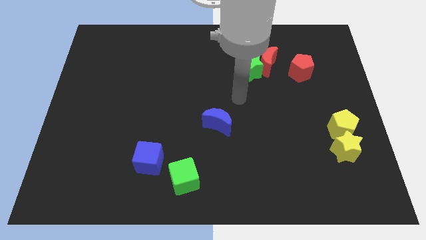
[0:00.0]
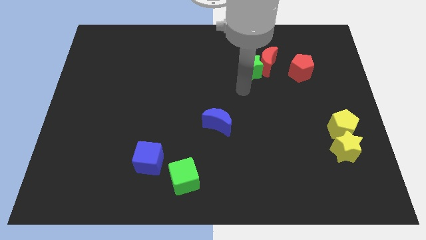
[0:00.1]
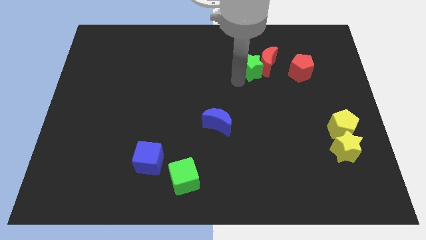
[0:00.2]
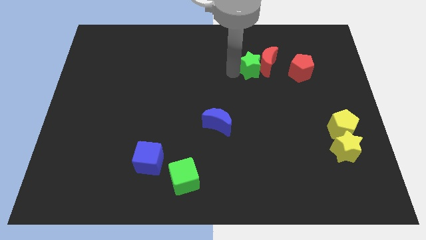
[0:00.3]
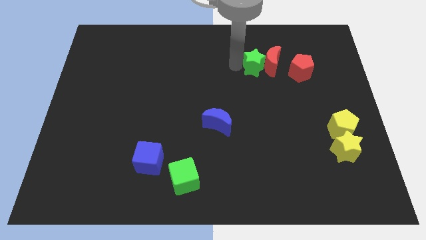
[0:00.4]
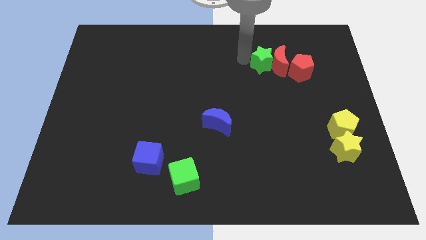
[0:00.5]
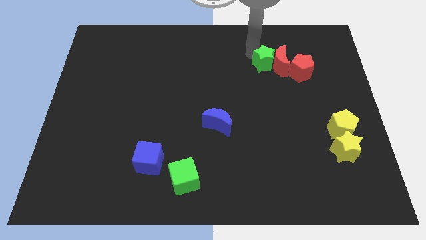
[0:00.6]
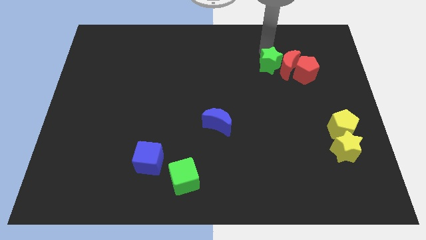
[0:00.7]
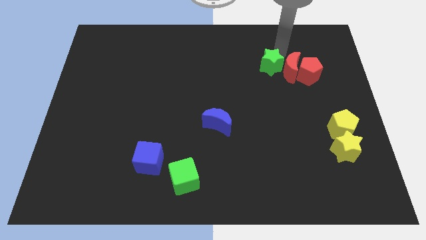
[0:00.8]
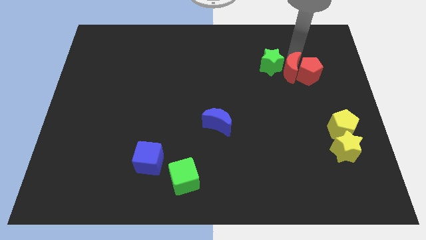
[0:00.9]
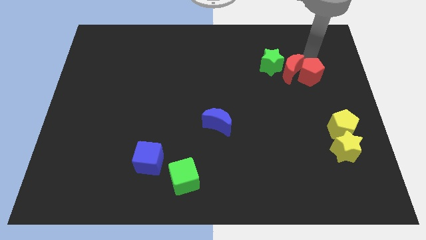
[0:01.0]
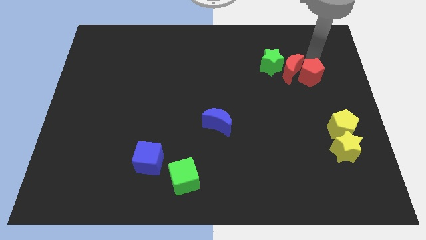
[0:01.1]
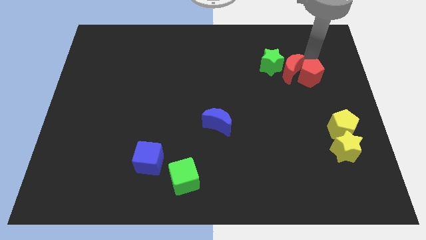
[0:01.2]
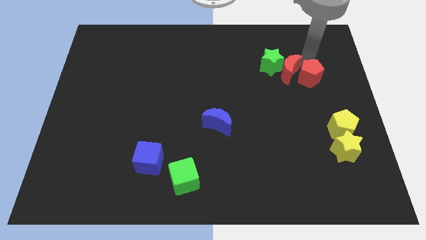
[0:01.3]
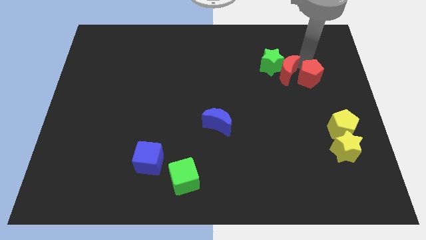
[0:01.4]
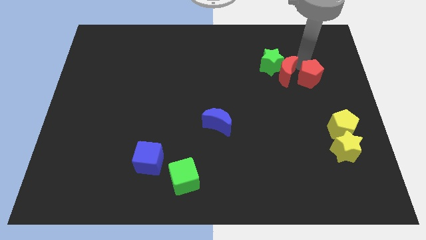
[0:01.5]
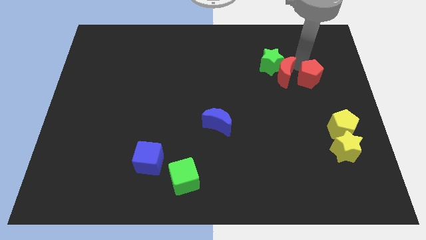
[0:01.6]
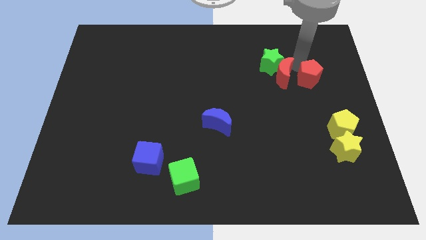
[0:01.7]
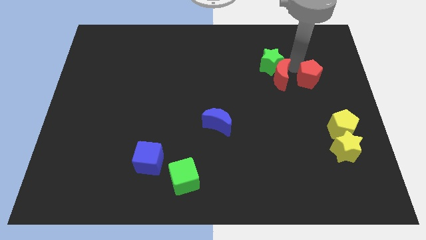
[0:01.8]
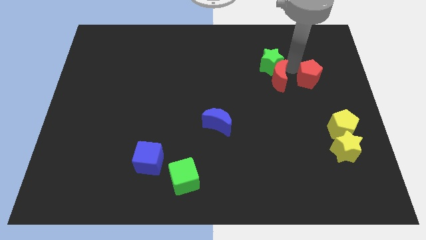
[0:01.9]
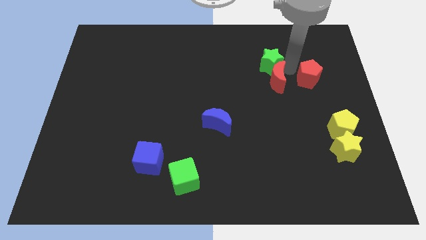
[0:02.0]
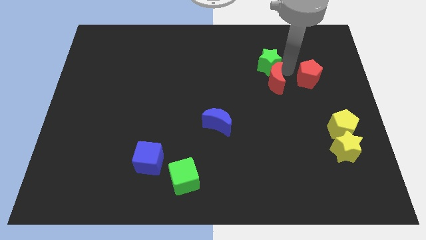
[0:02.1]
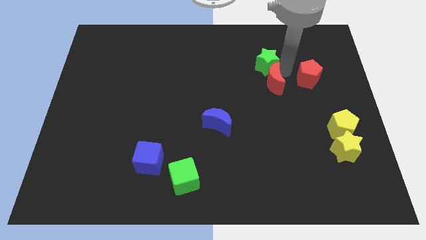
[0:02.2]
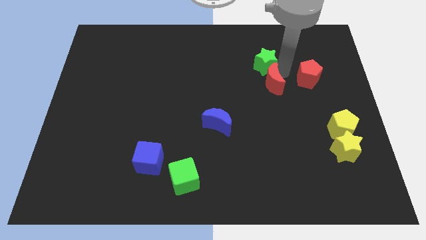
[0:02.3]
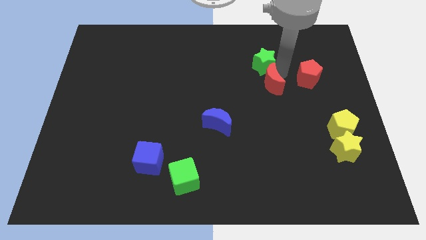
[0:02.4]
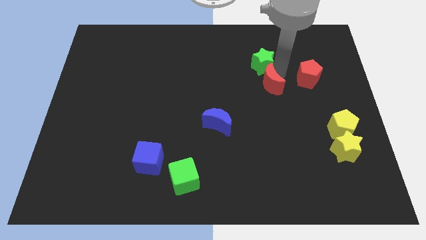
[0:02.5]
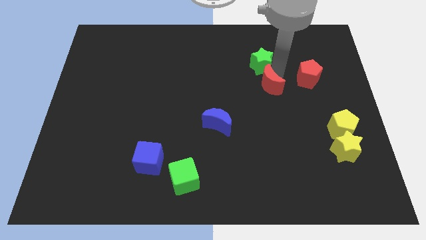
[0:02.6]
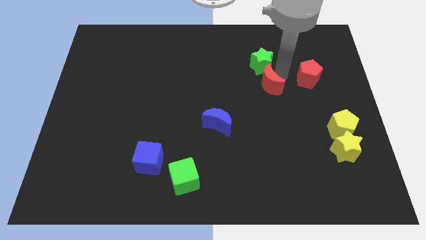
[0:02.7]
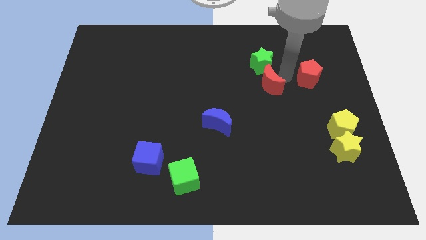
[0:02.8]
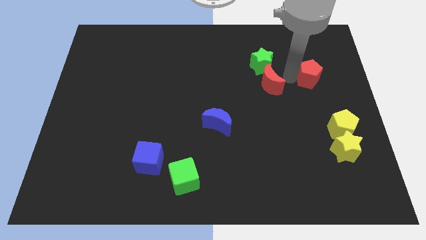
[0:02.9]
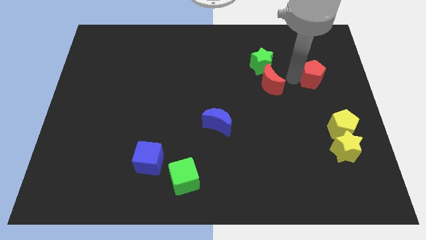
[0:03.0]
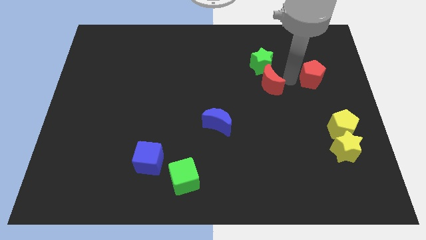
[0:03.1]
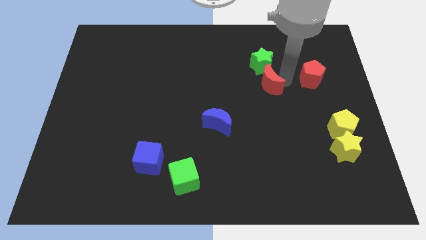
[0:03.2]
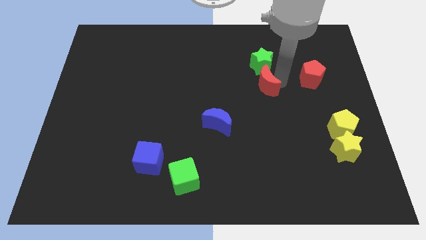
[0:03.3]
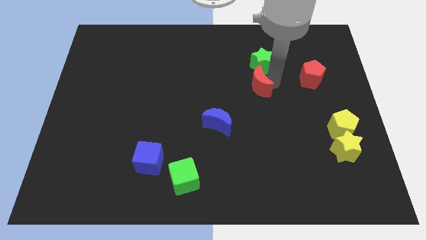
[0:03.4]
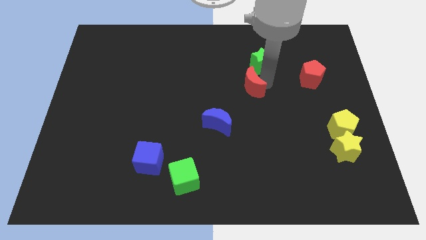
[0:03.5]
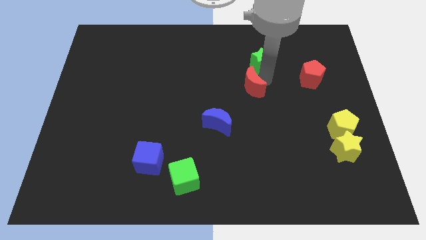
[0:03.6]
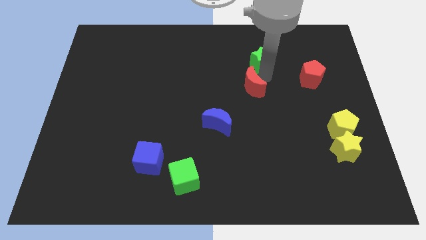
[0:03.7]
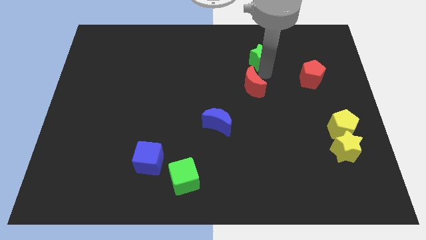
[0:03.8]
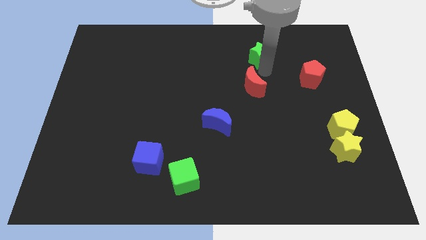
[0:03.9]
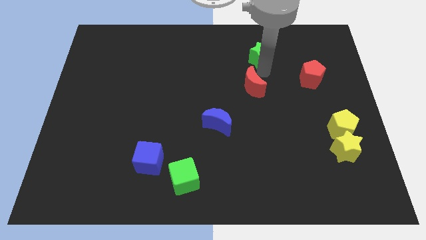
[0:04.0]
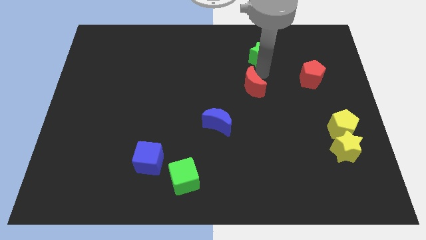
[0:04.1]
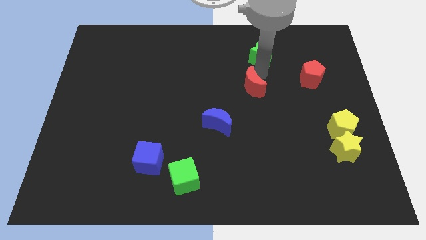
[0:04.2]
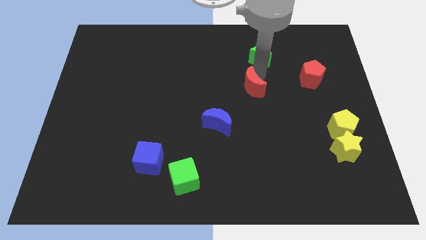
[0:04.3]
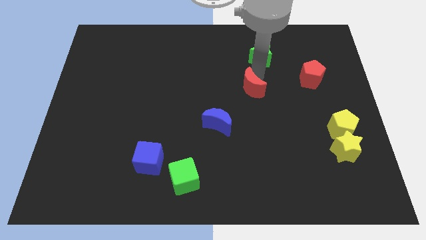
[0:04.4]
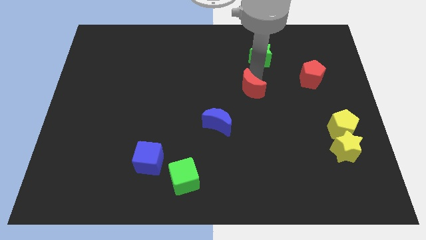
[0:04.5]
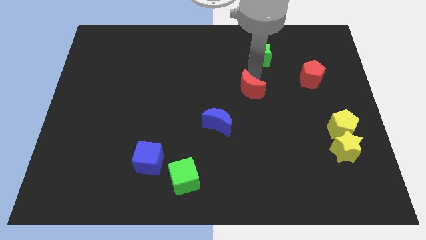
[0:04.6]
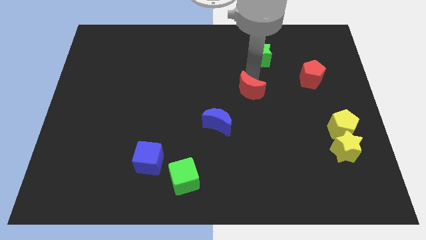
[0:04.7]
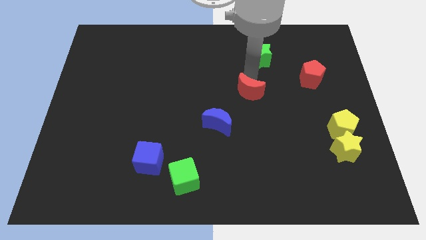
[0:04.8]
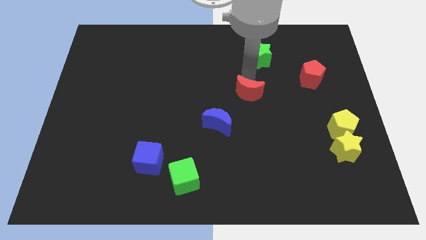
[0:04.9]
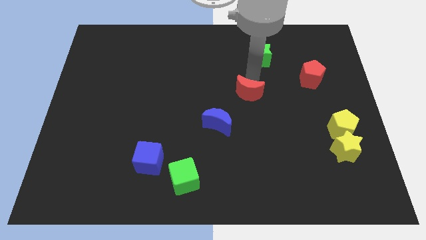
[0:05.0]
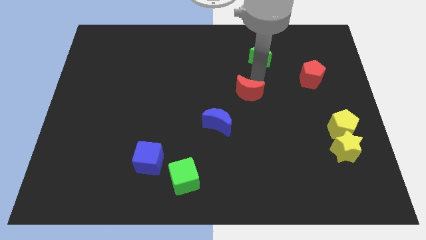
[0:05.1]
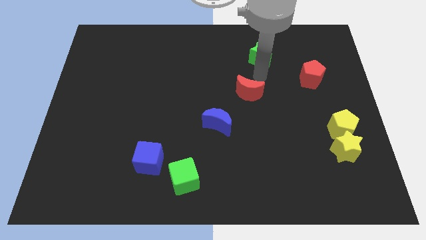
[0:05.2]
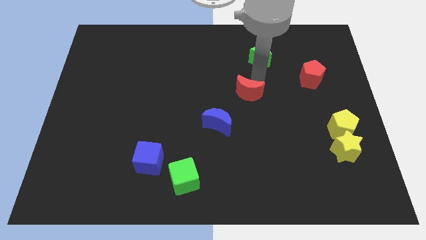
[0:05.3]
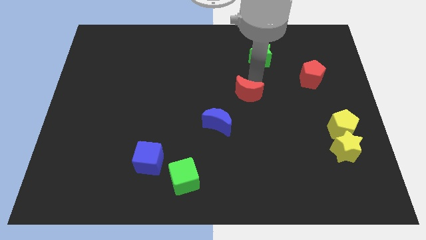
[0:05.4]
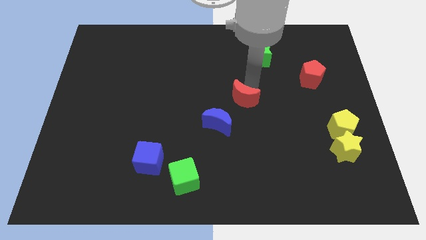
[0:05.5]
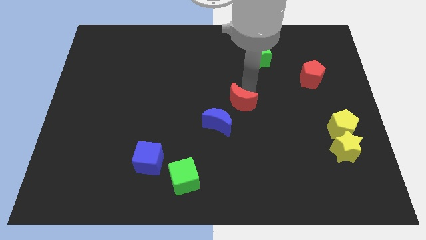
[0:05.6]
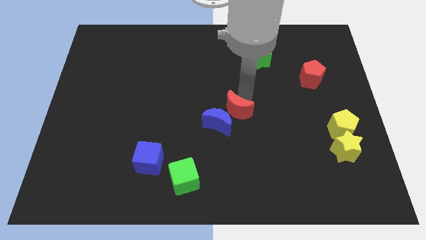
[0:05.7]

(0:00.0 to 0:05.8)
move the red moon to the blue moon

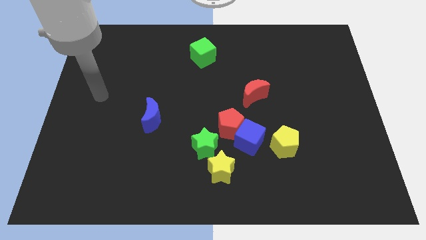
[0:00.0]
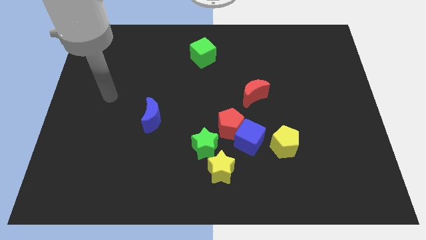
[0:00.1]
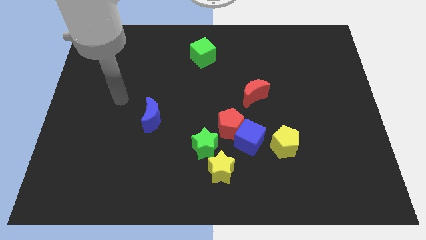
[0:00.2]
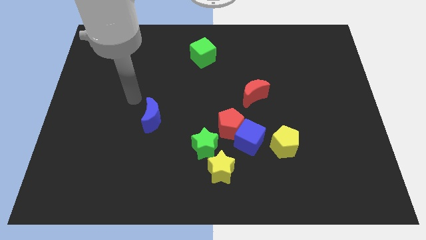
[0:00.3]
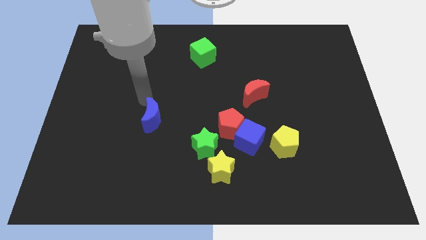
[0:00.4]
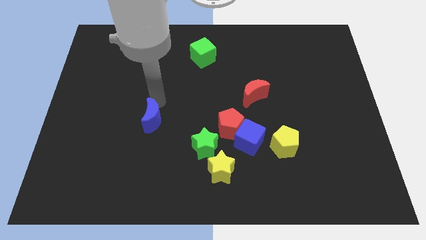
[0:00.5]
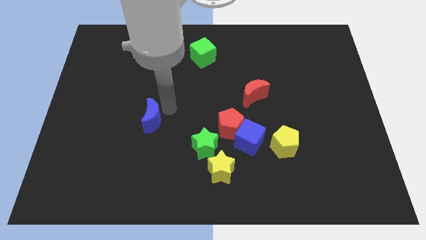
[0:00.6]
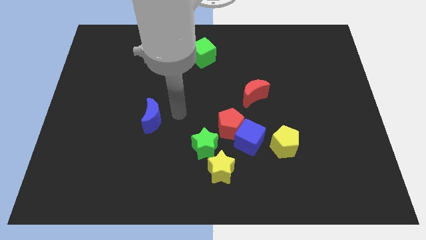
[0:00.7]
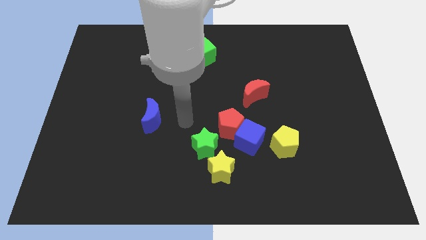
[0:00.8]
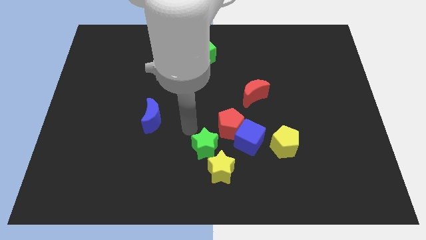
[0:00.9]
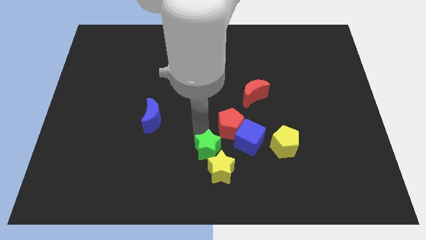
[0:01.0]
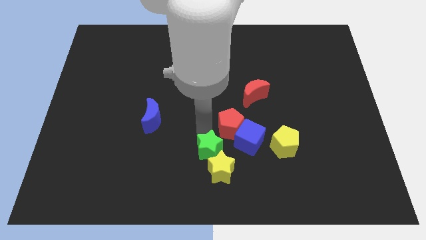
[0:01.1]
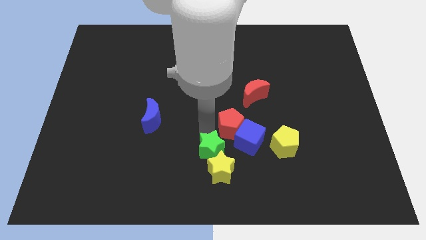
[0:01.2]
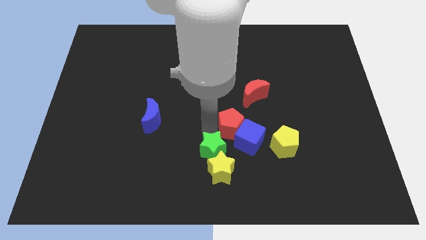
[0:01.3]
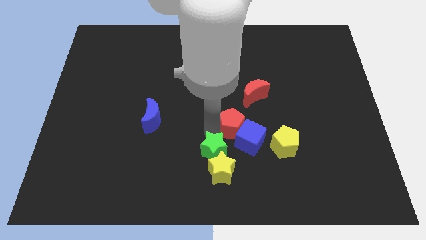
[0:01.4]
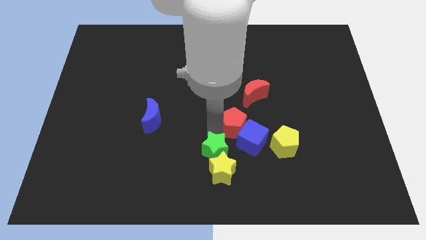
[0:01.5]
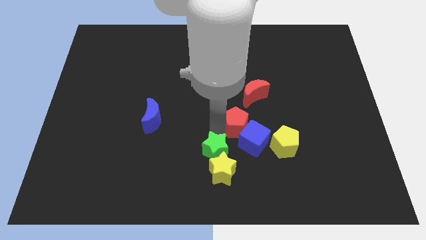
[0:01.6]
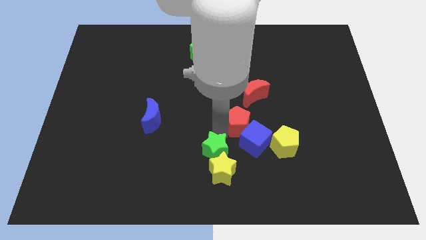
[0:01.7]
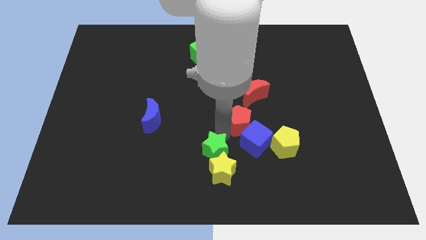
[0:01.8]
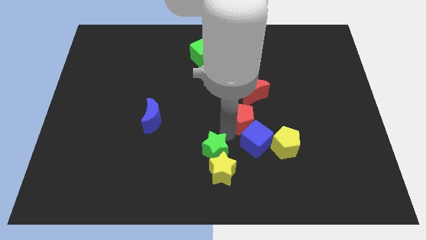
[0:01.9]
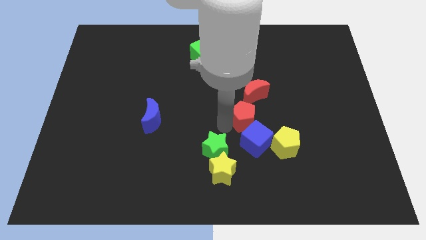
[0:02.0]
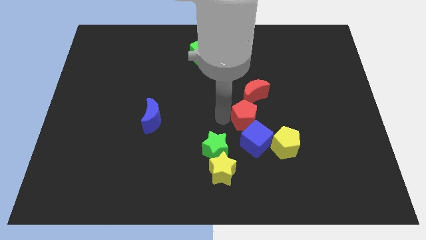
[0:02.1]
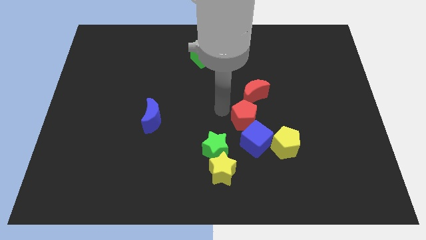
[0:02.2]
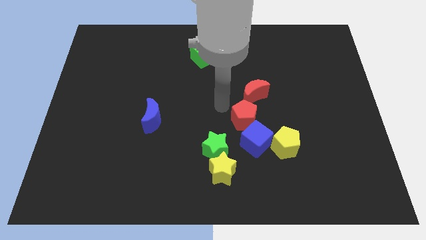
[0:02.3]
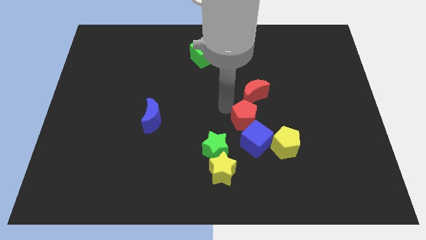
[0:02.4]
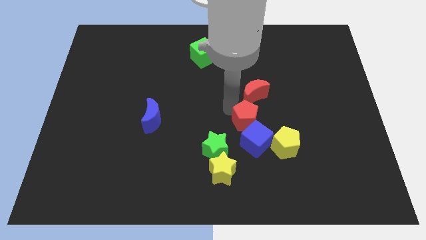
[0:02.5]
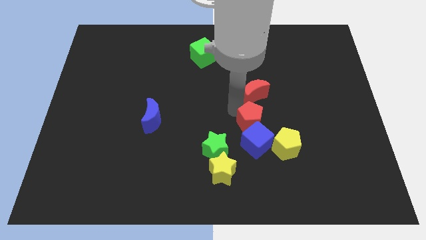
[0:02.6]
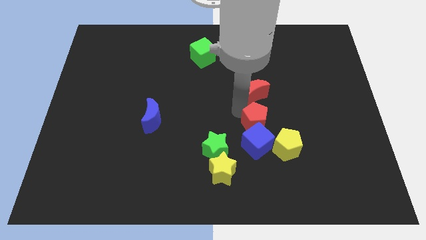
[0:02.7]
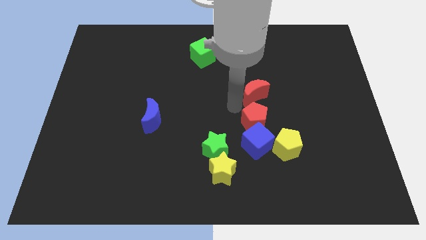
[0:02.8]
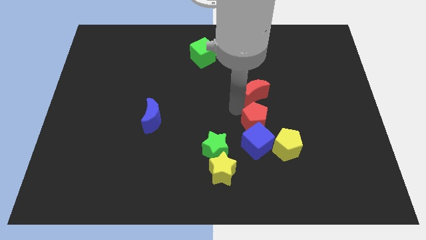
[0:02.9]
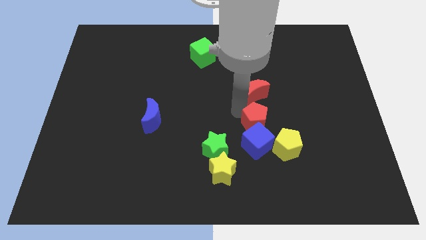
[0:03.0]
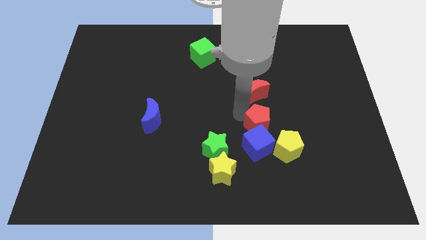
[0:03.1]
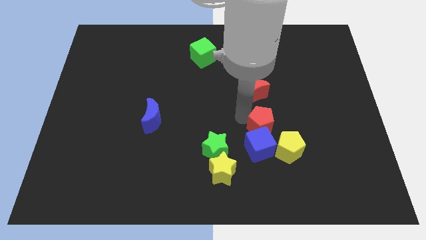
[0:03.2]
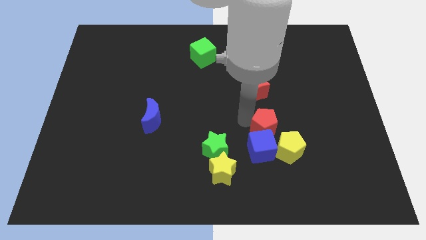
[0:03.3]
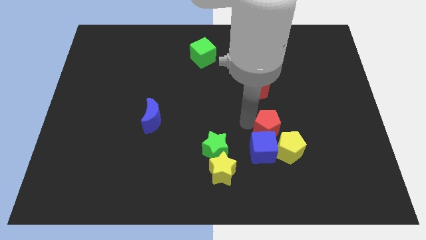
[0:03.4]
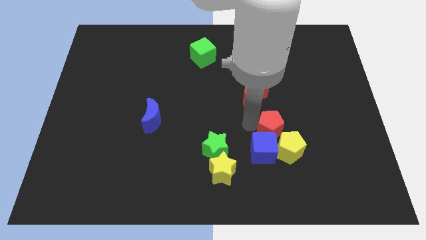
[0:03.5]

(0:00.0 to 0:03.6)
push the red pentagon towards the yellow pentagon
